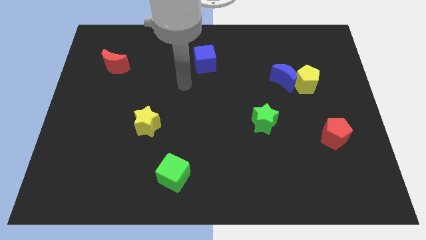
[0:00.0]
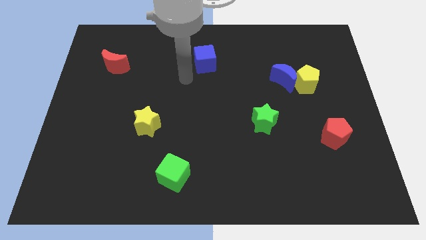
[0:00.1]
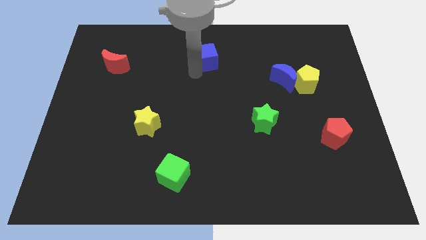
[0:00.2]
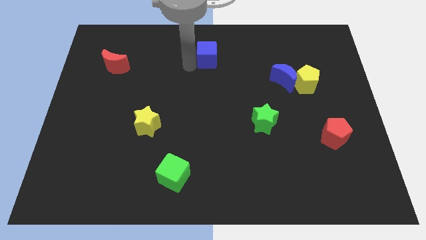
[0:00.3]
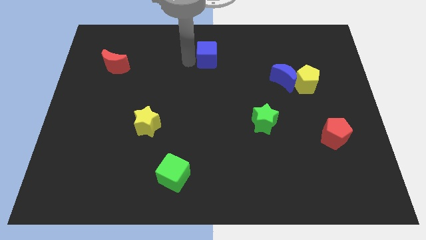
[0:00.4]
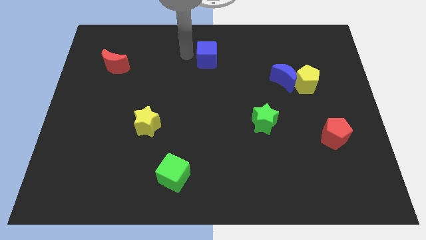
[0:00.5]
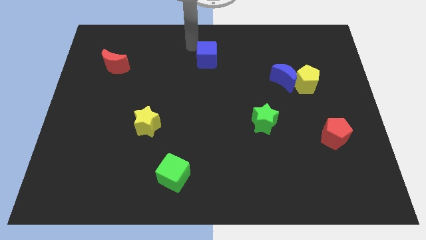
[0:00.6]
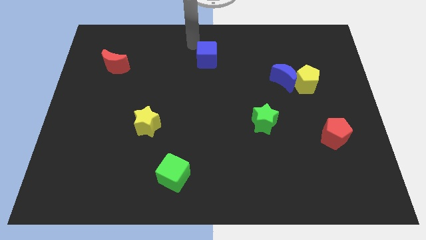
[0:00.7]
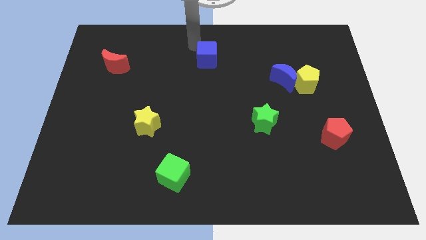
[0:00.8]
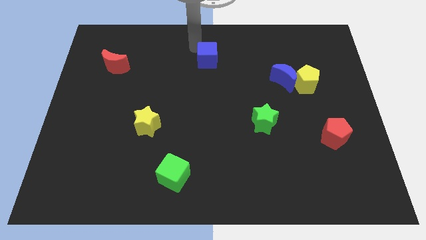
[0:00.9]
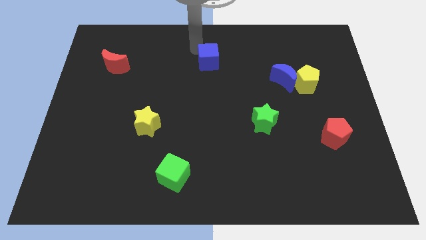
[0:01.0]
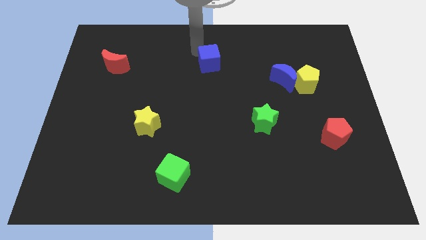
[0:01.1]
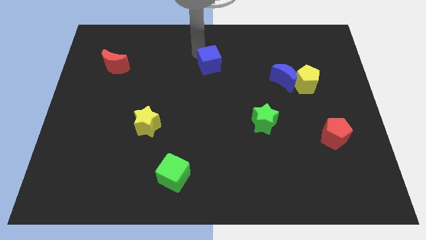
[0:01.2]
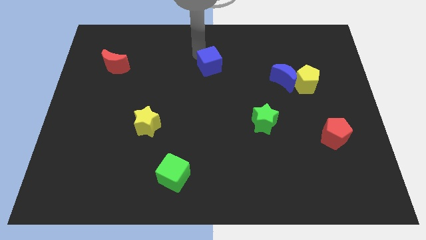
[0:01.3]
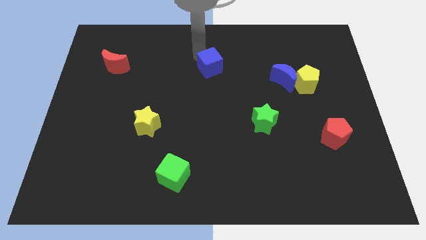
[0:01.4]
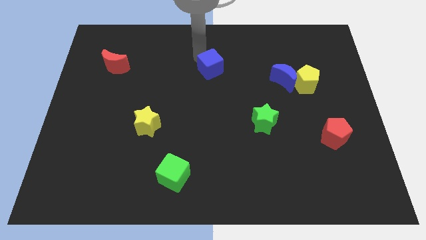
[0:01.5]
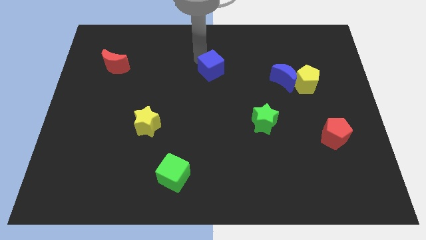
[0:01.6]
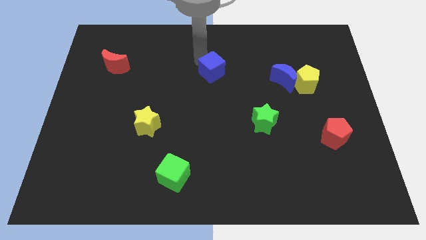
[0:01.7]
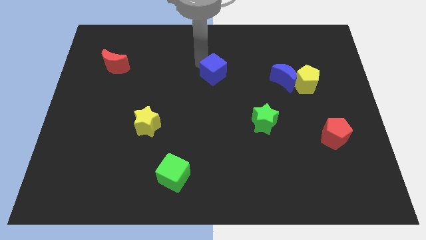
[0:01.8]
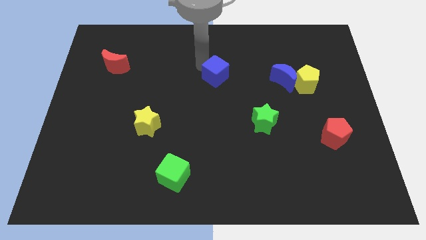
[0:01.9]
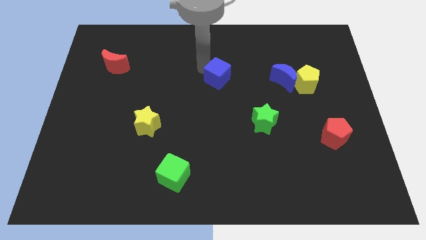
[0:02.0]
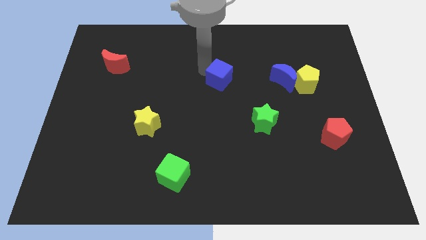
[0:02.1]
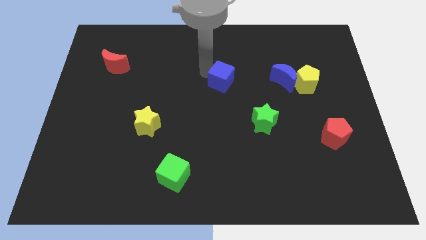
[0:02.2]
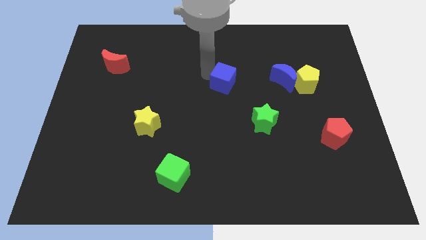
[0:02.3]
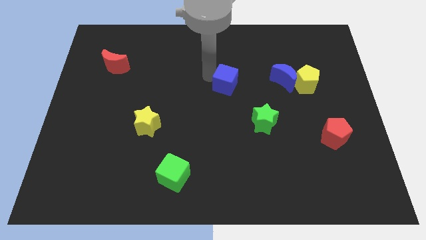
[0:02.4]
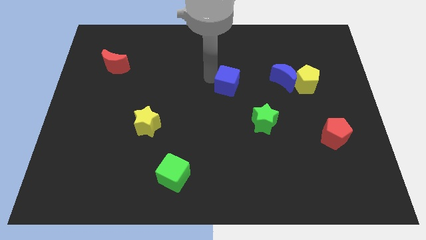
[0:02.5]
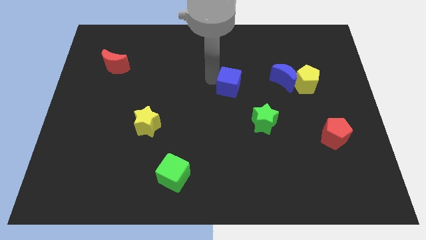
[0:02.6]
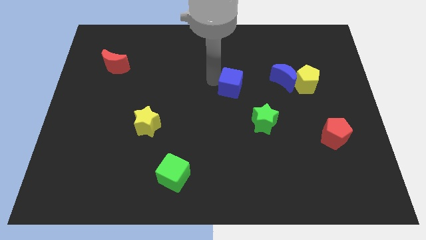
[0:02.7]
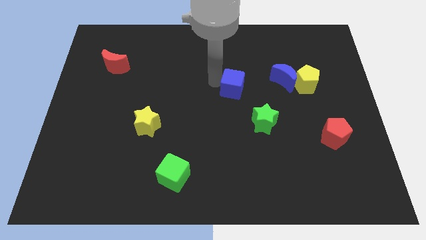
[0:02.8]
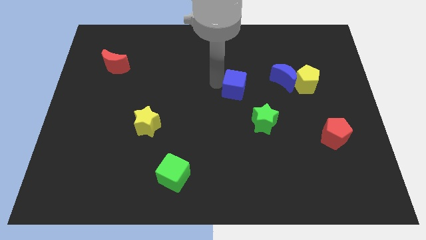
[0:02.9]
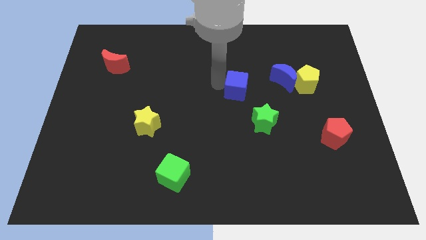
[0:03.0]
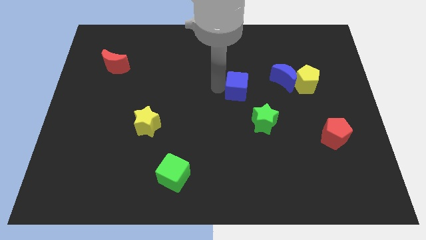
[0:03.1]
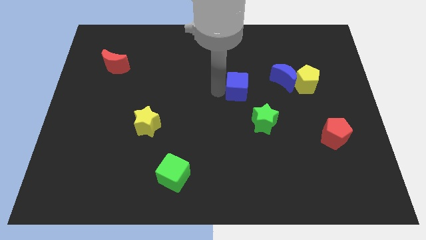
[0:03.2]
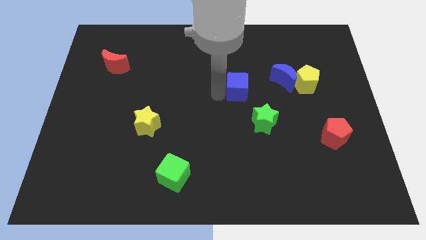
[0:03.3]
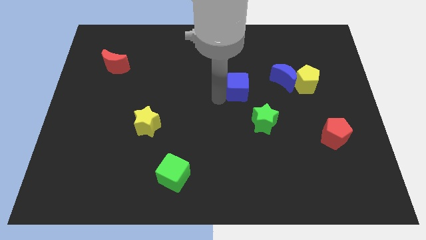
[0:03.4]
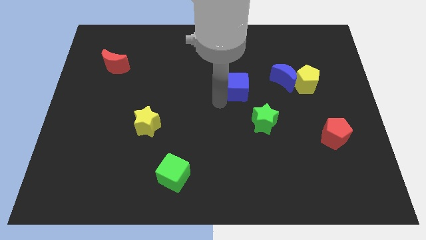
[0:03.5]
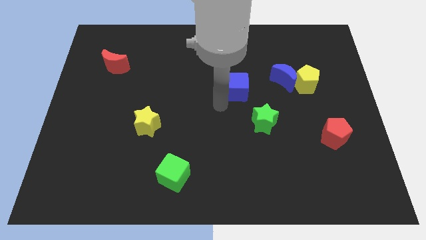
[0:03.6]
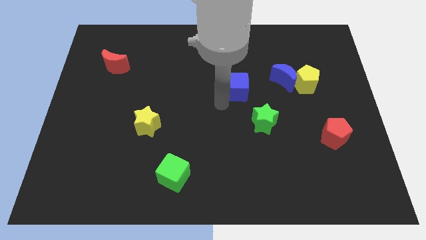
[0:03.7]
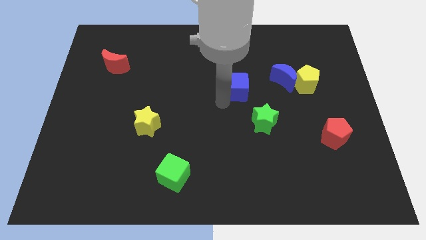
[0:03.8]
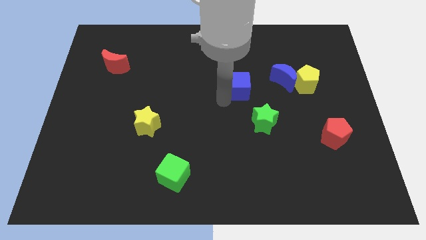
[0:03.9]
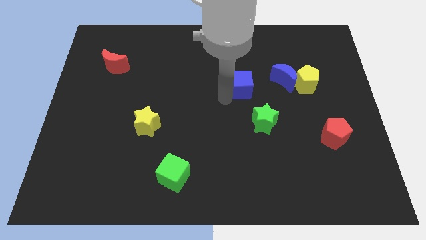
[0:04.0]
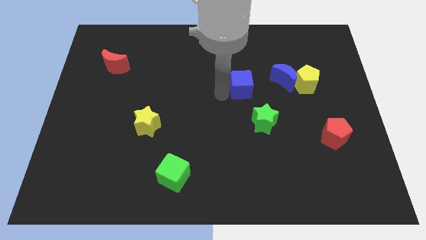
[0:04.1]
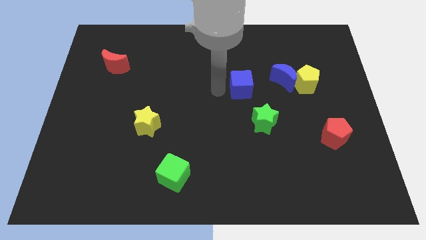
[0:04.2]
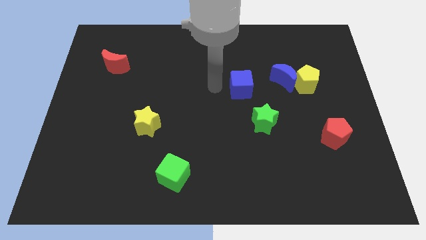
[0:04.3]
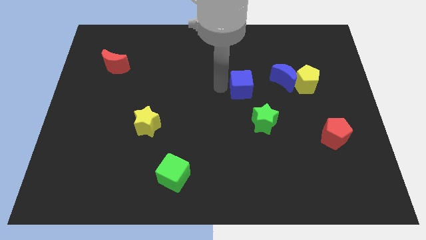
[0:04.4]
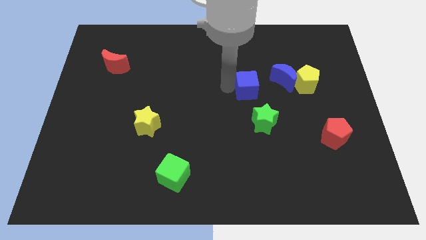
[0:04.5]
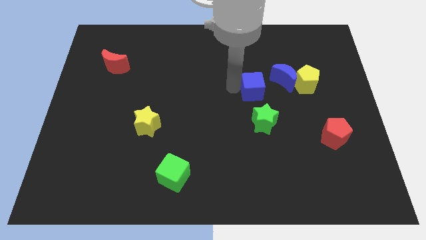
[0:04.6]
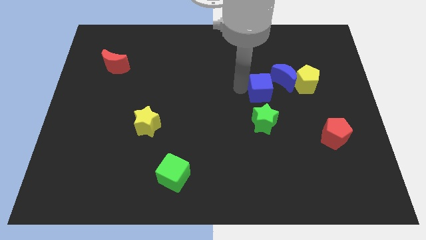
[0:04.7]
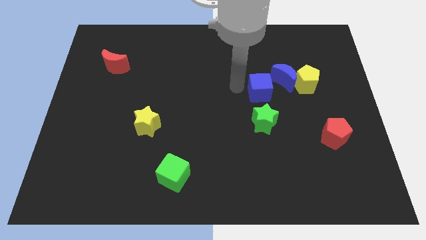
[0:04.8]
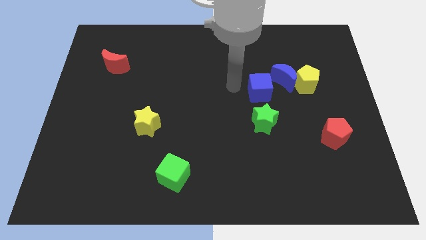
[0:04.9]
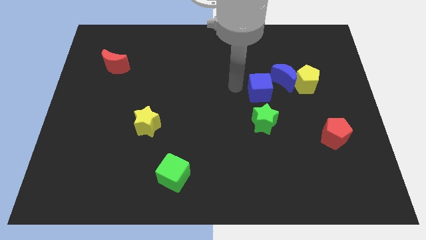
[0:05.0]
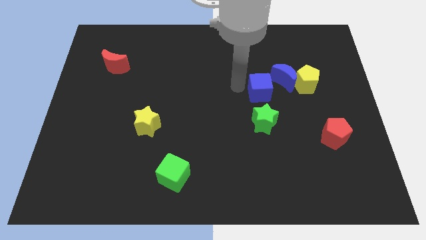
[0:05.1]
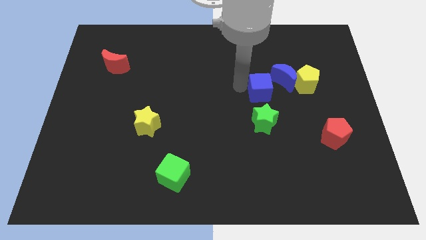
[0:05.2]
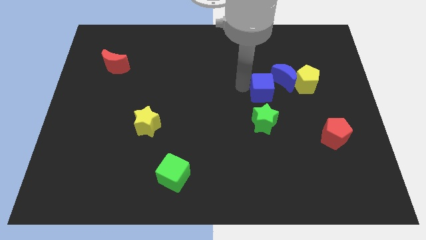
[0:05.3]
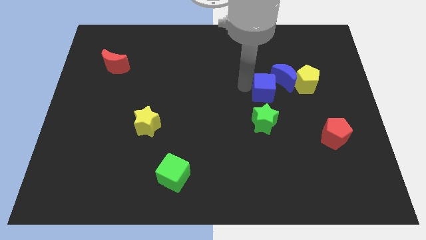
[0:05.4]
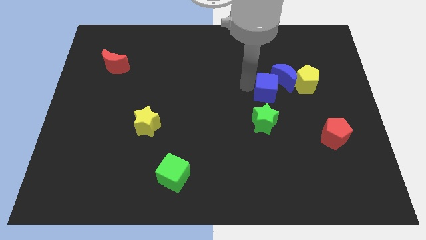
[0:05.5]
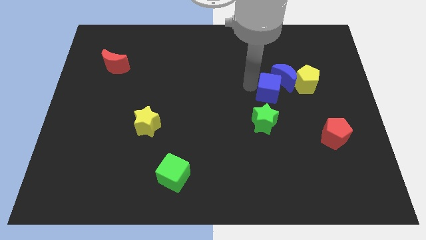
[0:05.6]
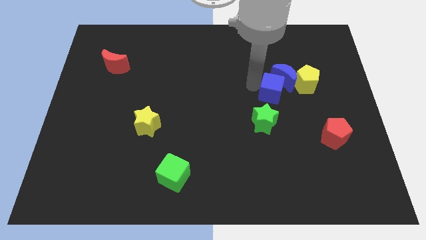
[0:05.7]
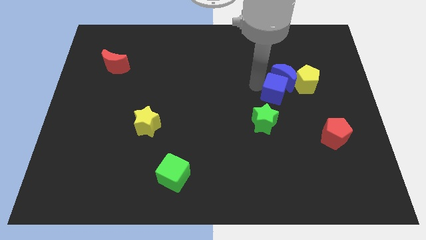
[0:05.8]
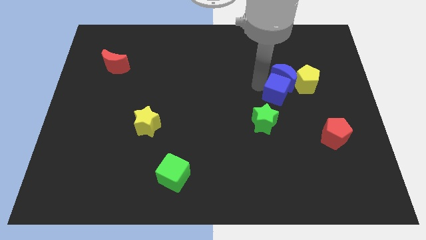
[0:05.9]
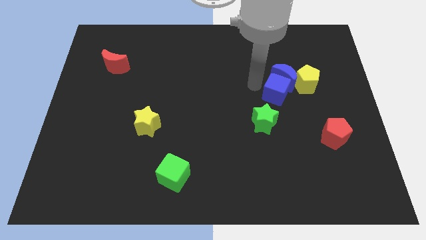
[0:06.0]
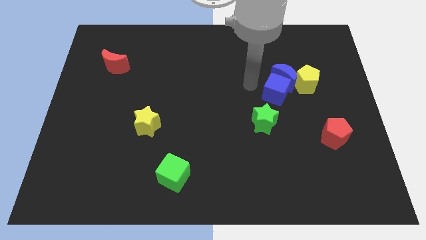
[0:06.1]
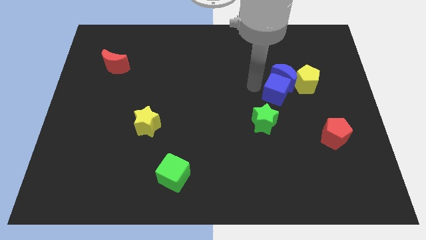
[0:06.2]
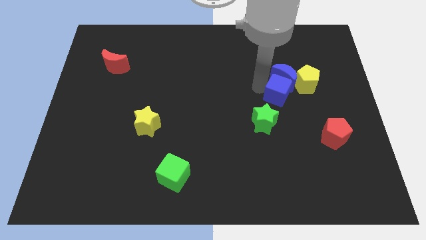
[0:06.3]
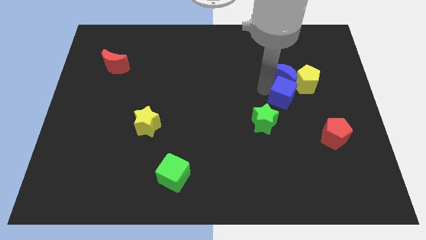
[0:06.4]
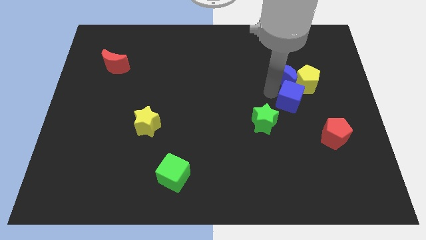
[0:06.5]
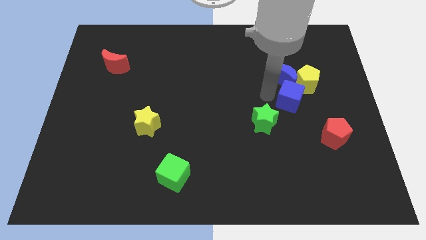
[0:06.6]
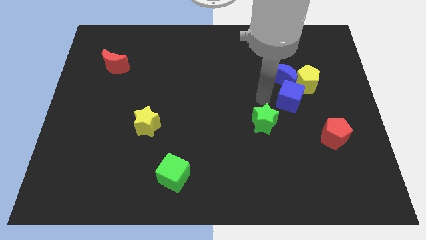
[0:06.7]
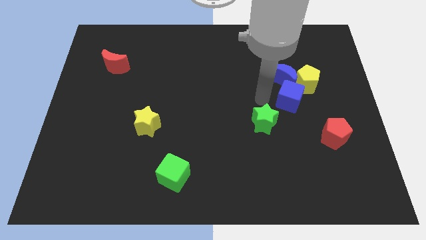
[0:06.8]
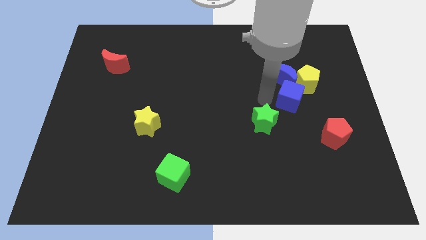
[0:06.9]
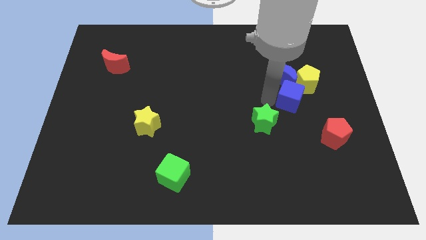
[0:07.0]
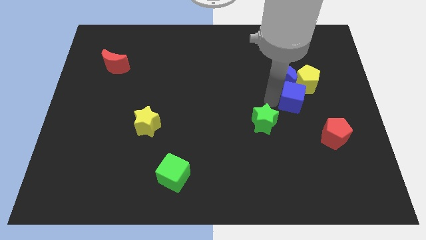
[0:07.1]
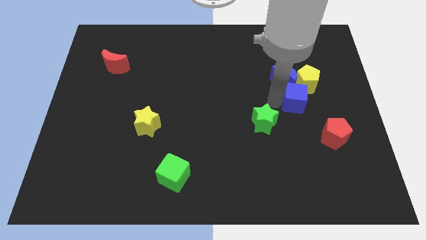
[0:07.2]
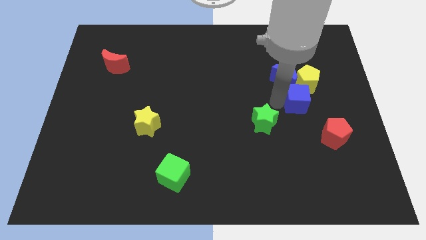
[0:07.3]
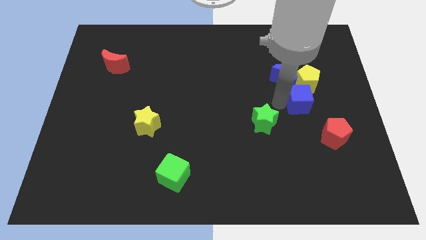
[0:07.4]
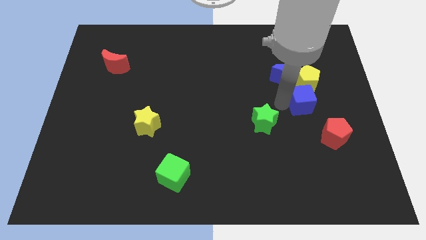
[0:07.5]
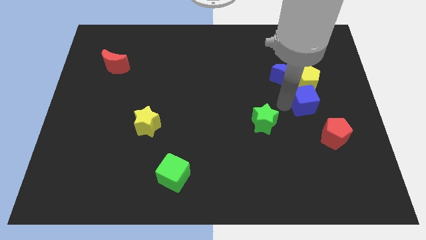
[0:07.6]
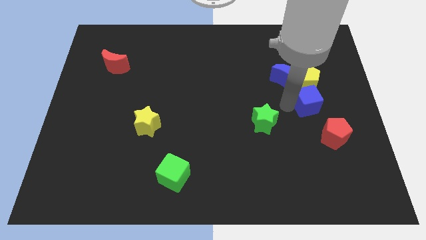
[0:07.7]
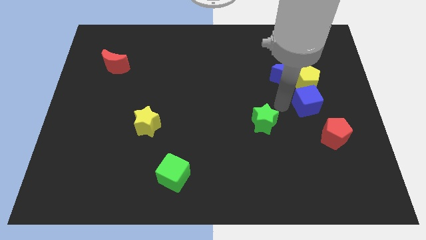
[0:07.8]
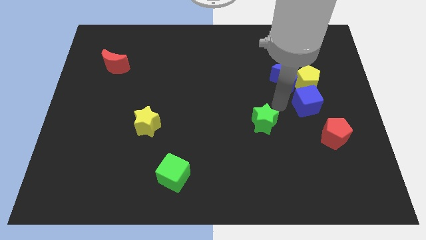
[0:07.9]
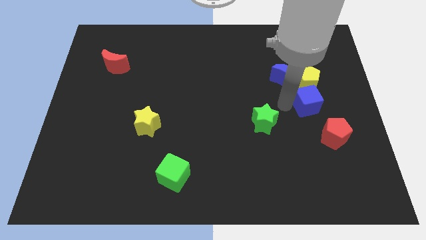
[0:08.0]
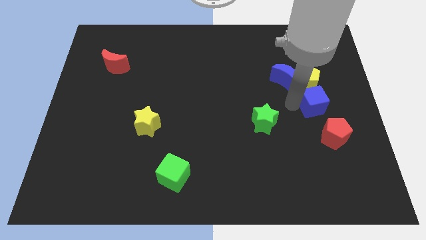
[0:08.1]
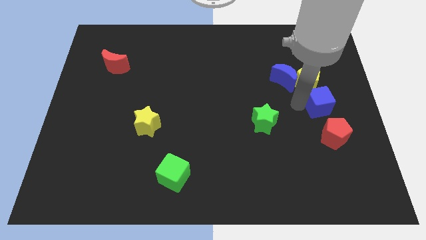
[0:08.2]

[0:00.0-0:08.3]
push the blue cube to the right side
